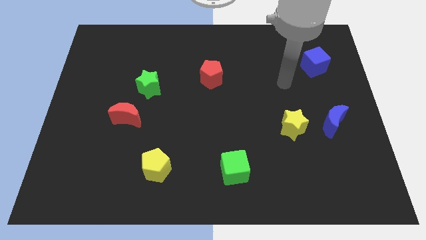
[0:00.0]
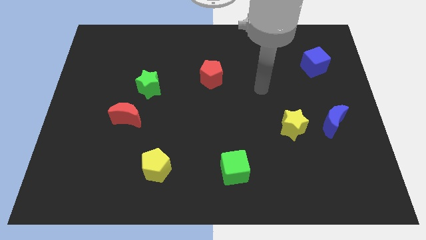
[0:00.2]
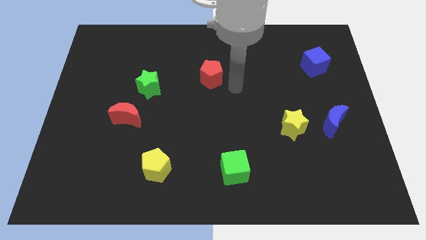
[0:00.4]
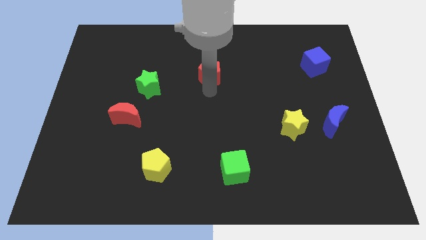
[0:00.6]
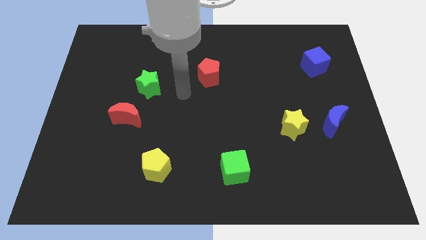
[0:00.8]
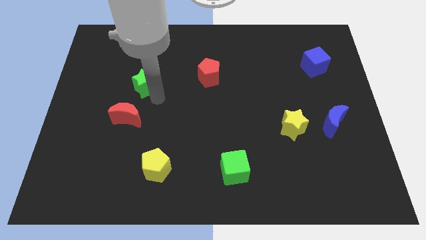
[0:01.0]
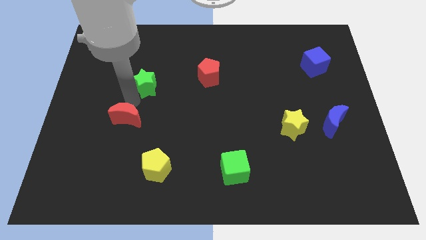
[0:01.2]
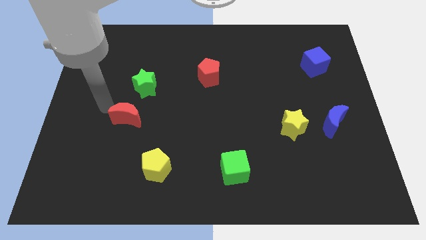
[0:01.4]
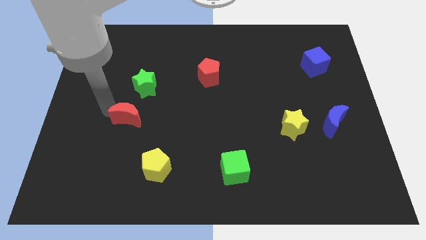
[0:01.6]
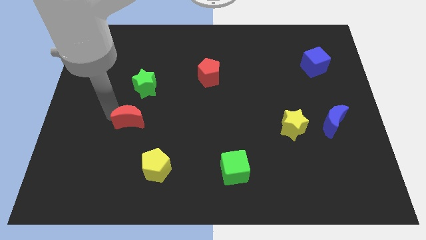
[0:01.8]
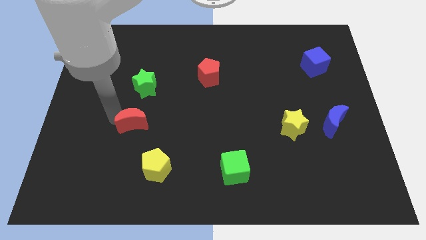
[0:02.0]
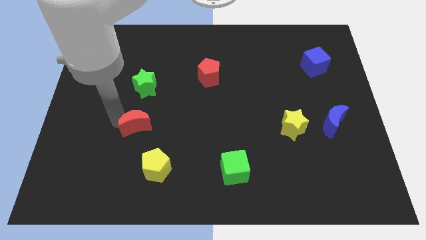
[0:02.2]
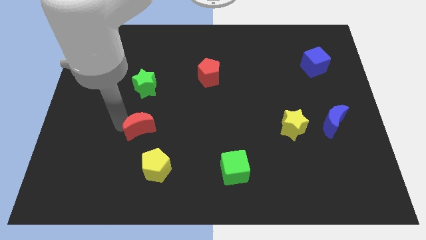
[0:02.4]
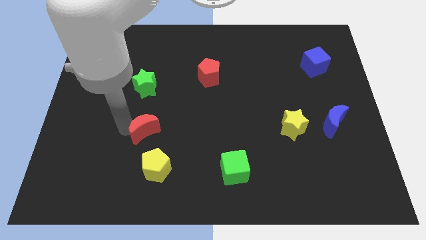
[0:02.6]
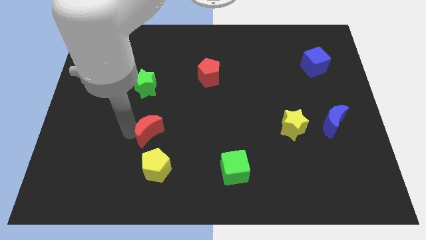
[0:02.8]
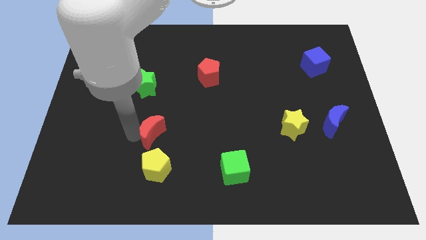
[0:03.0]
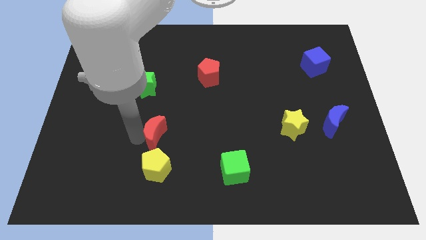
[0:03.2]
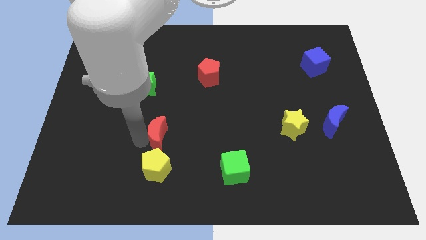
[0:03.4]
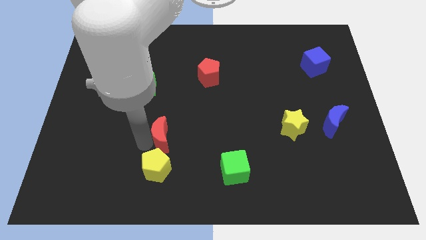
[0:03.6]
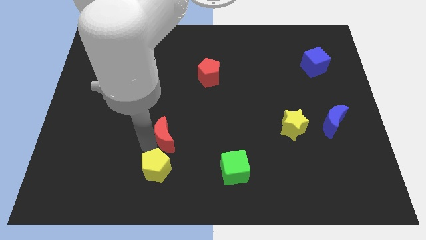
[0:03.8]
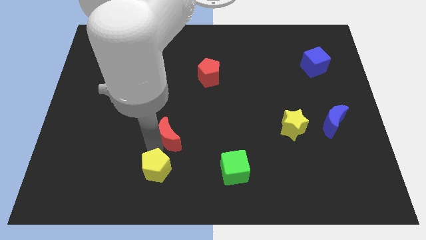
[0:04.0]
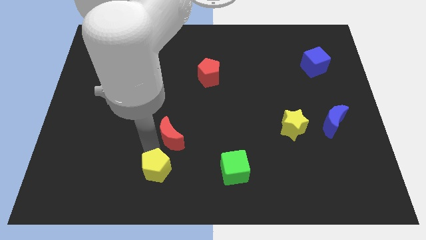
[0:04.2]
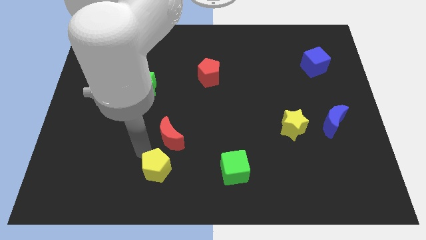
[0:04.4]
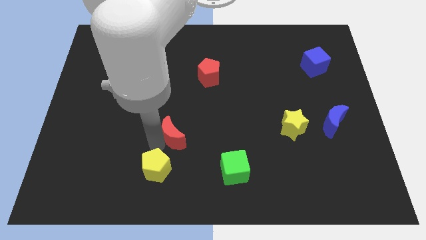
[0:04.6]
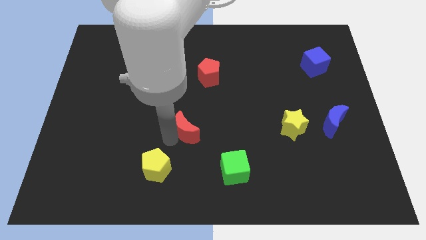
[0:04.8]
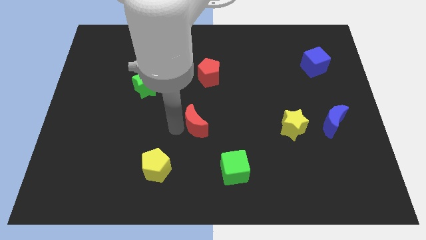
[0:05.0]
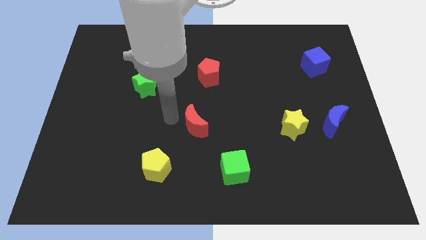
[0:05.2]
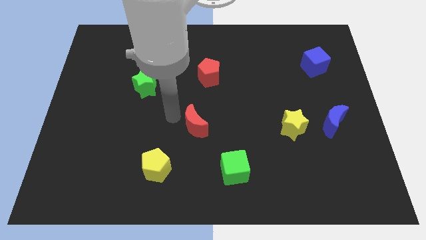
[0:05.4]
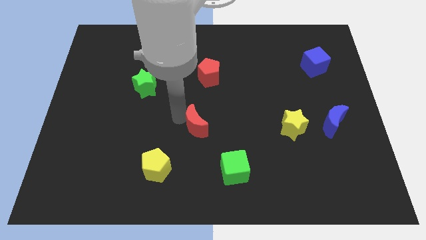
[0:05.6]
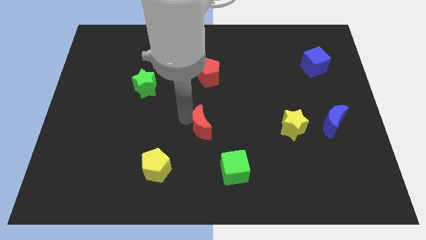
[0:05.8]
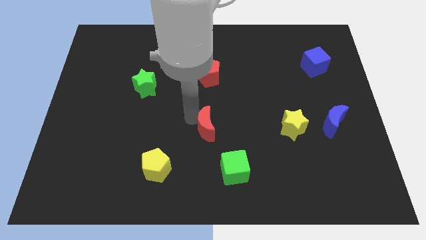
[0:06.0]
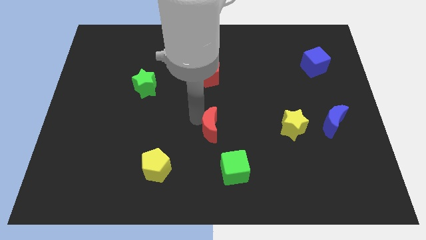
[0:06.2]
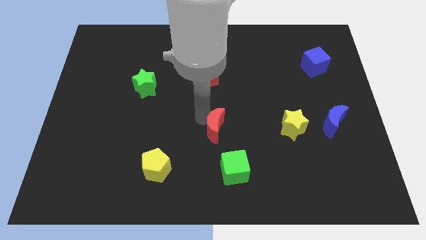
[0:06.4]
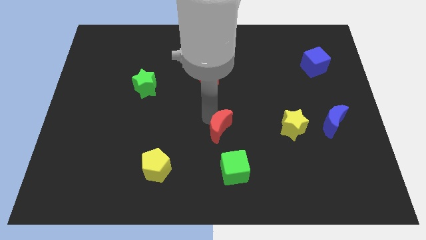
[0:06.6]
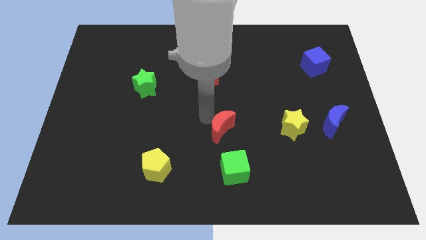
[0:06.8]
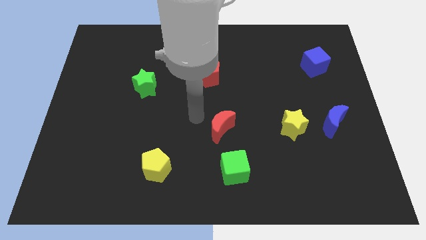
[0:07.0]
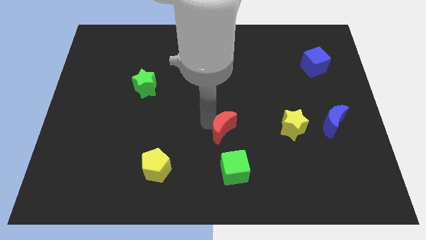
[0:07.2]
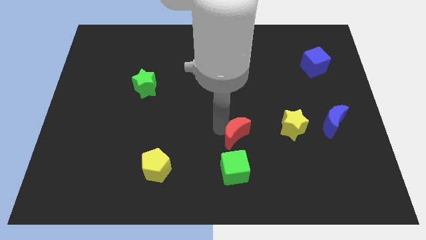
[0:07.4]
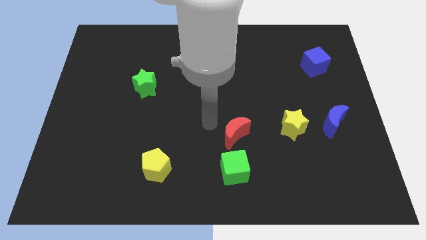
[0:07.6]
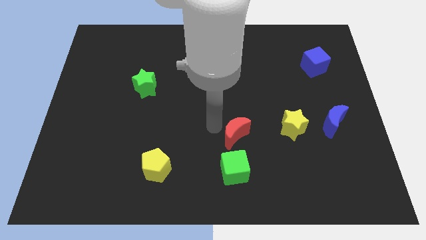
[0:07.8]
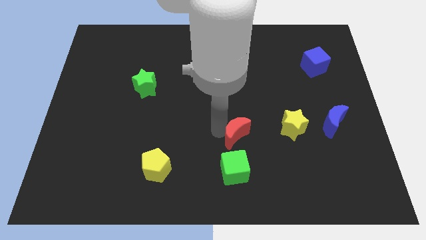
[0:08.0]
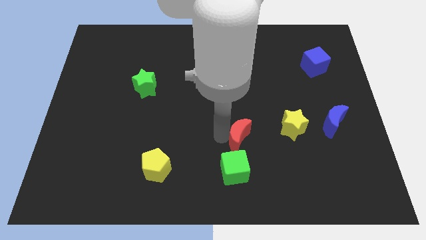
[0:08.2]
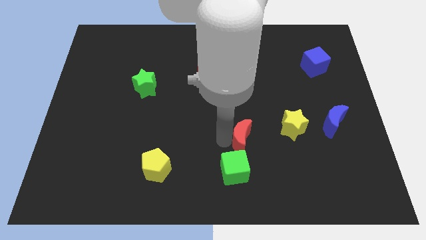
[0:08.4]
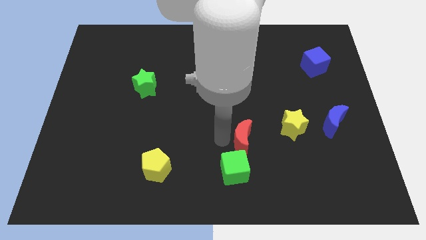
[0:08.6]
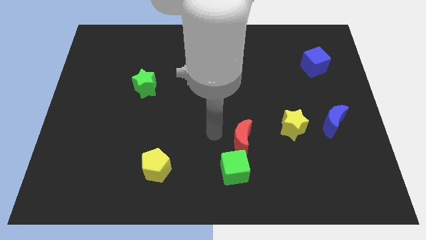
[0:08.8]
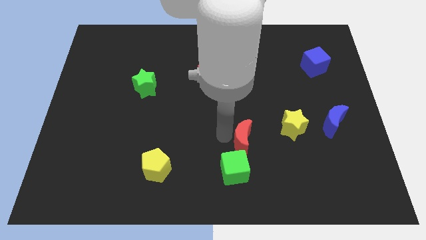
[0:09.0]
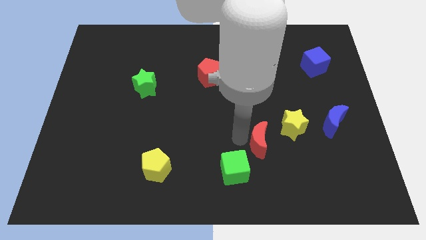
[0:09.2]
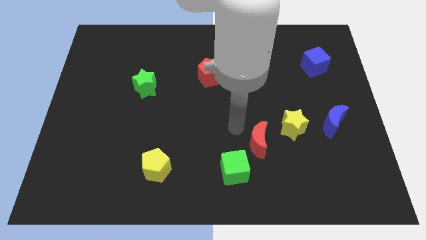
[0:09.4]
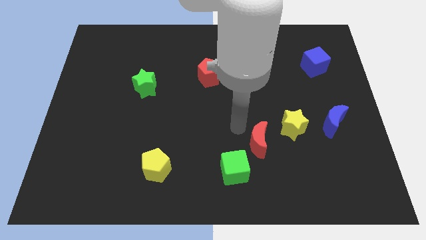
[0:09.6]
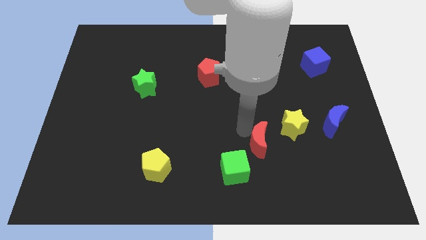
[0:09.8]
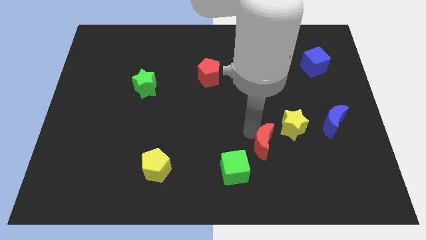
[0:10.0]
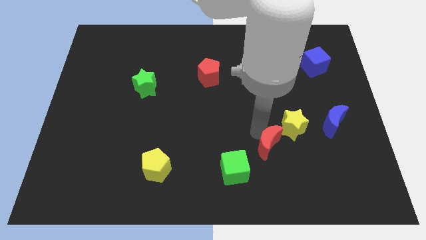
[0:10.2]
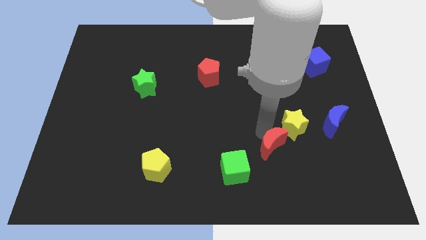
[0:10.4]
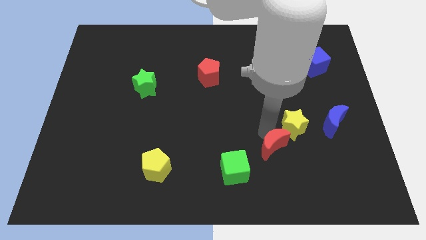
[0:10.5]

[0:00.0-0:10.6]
slide the red moon below the yellow star

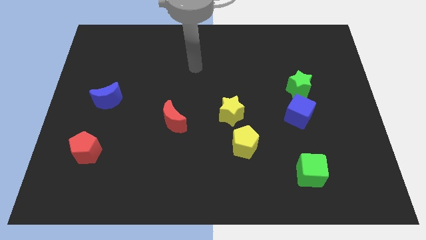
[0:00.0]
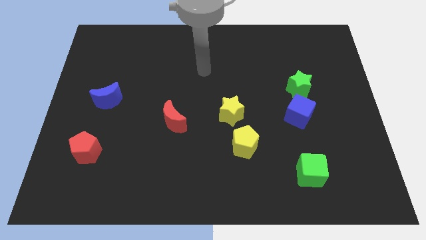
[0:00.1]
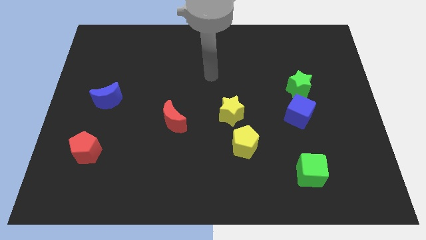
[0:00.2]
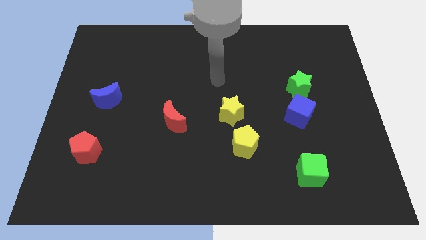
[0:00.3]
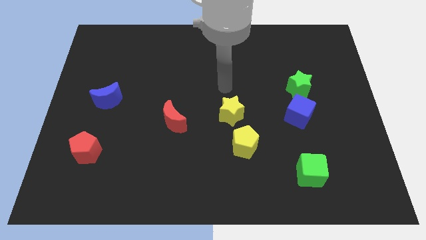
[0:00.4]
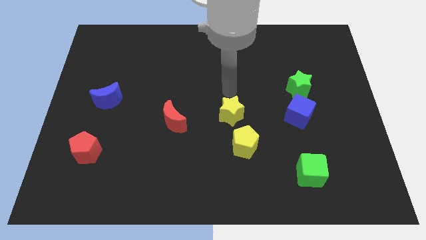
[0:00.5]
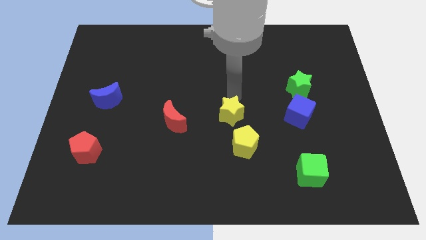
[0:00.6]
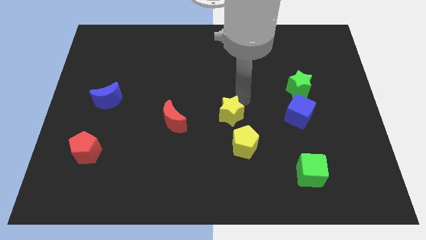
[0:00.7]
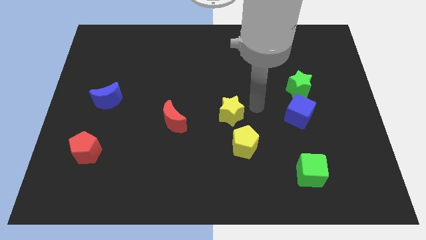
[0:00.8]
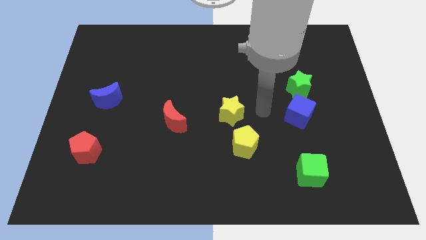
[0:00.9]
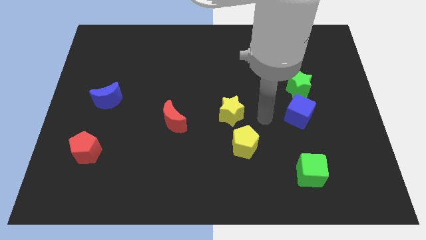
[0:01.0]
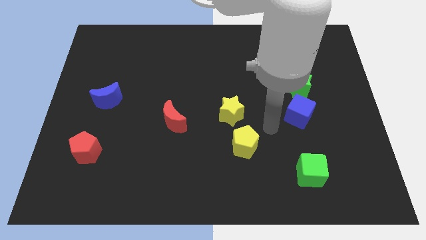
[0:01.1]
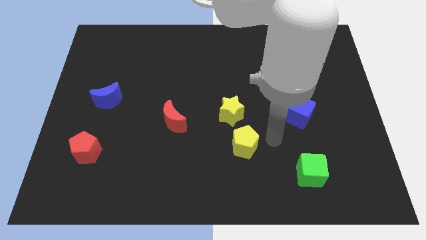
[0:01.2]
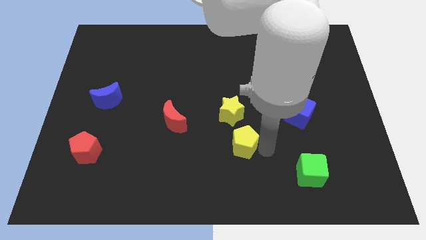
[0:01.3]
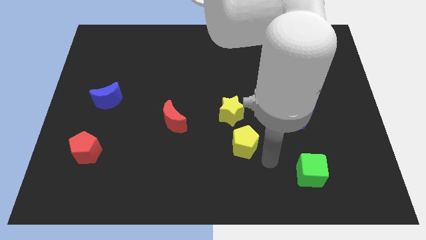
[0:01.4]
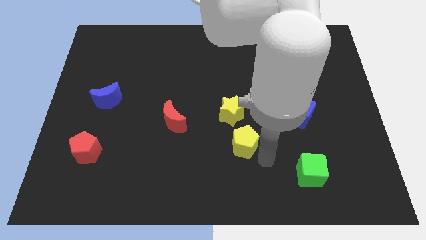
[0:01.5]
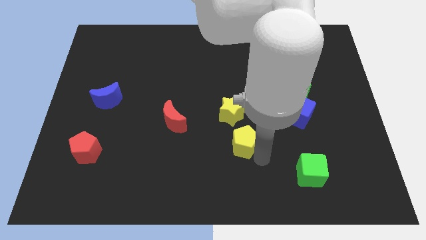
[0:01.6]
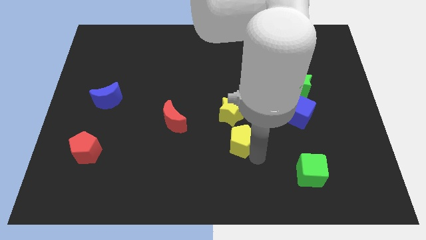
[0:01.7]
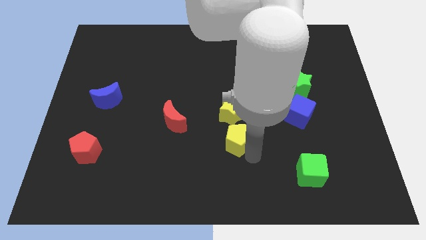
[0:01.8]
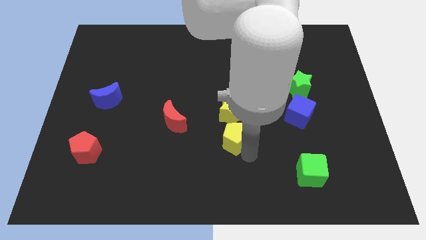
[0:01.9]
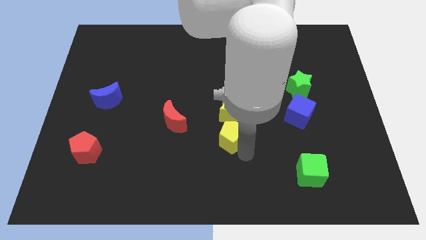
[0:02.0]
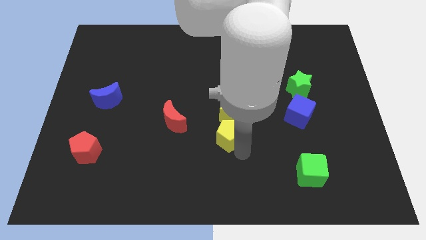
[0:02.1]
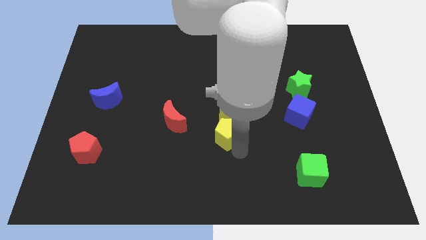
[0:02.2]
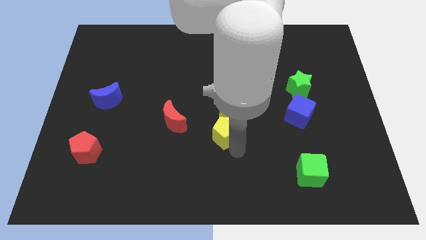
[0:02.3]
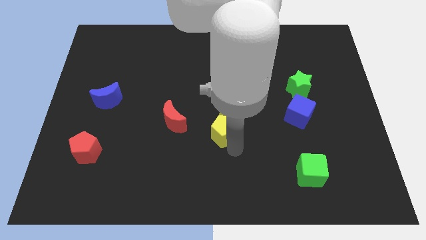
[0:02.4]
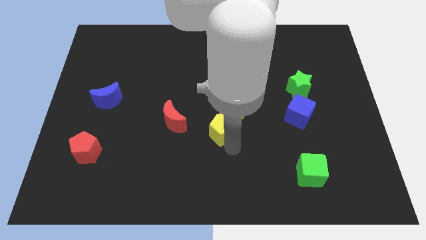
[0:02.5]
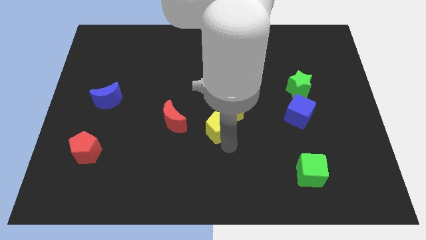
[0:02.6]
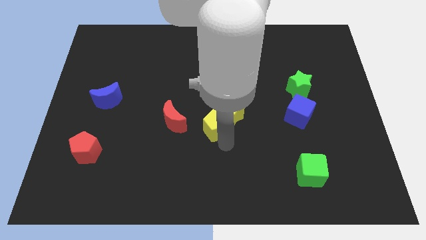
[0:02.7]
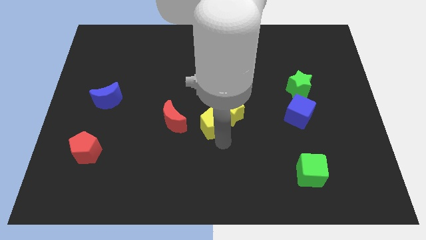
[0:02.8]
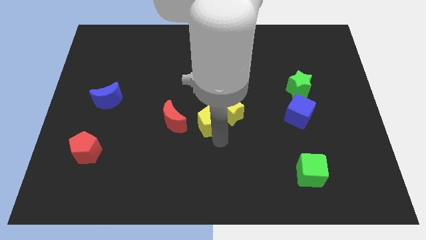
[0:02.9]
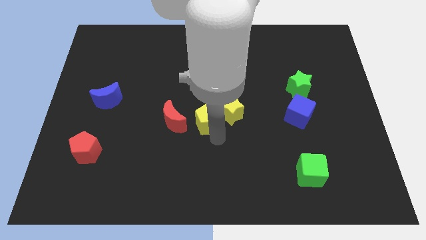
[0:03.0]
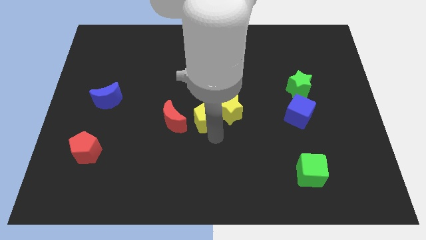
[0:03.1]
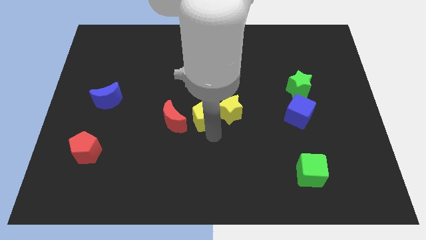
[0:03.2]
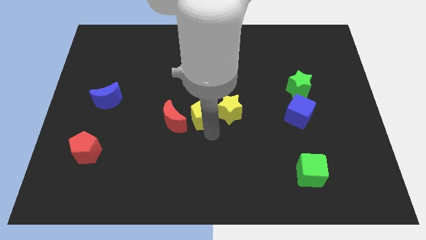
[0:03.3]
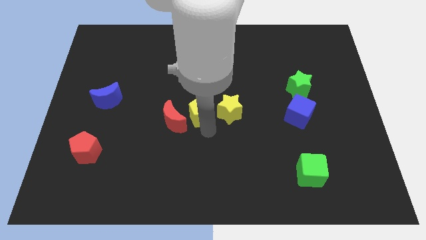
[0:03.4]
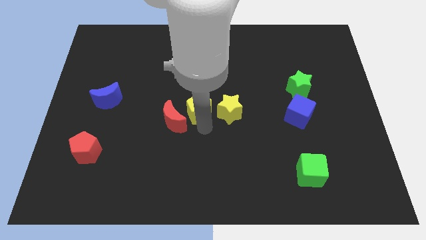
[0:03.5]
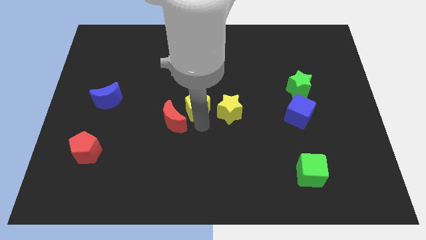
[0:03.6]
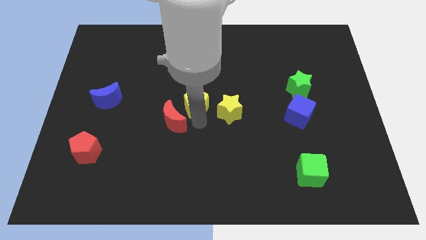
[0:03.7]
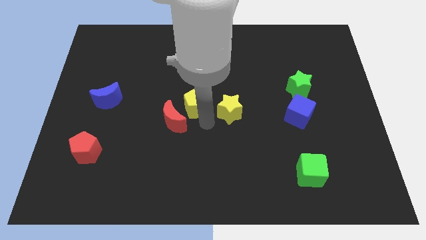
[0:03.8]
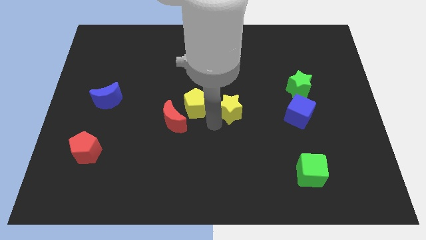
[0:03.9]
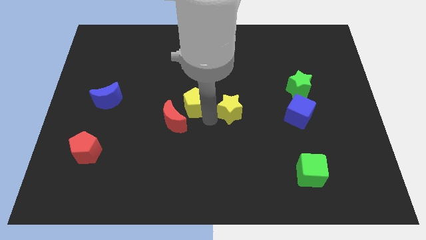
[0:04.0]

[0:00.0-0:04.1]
slide the yellow pentagon to the top of the red moon
